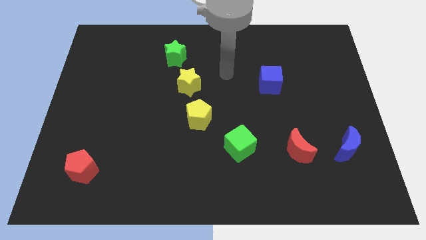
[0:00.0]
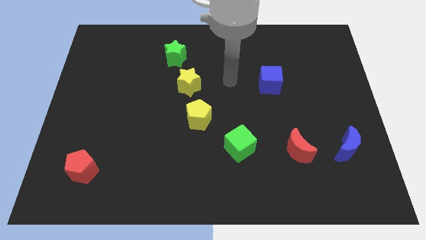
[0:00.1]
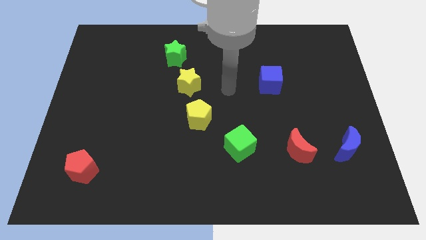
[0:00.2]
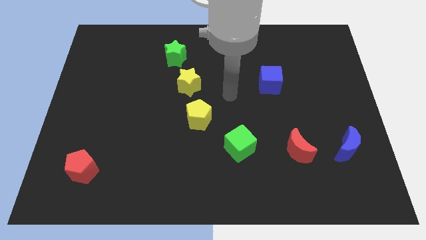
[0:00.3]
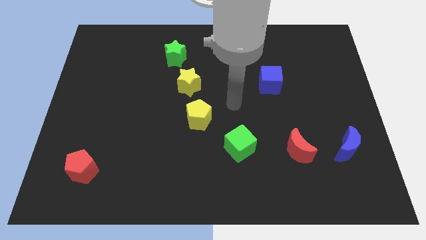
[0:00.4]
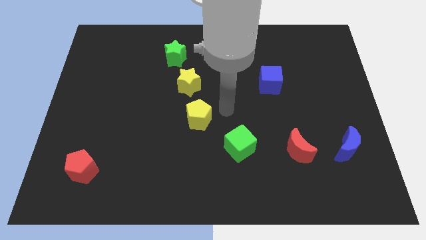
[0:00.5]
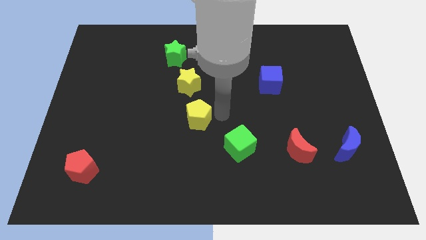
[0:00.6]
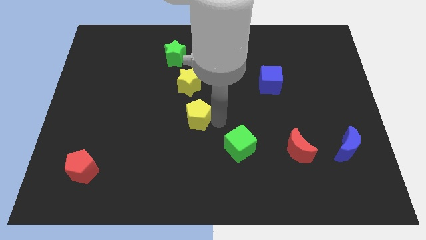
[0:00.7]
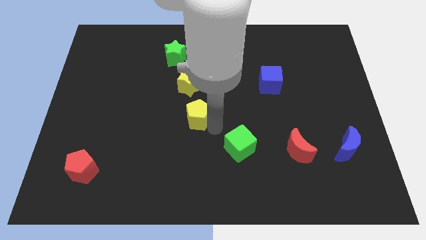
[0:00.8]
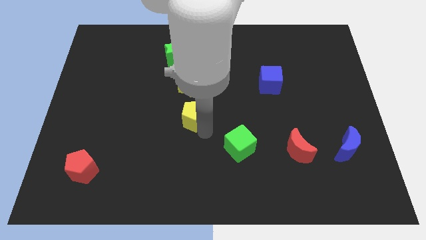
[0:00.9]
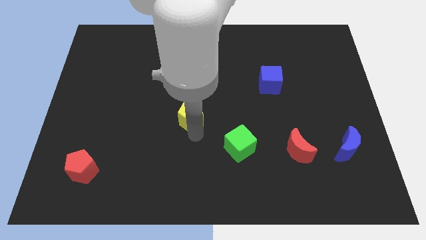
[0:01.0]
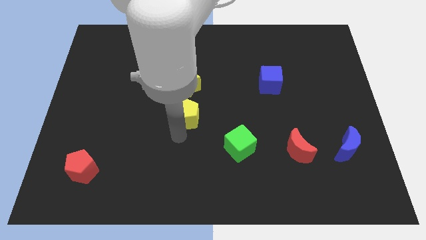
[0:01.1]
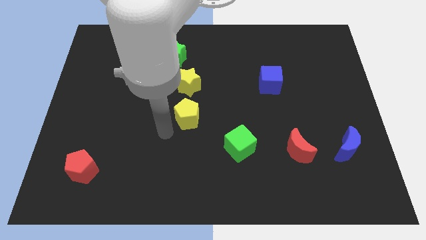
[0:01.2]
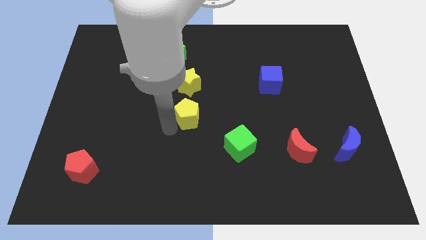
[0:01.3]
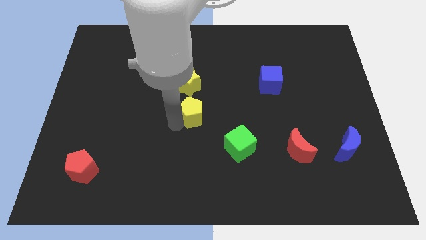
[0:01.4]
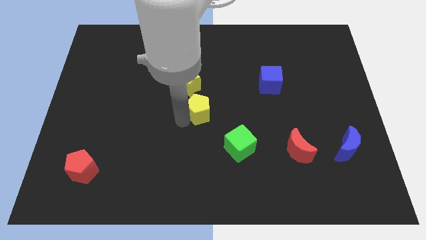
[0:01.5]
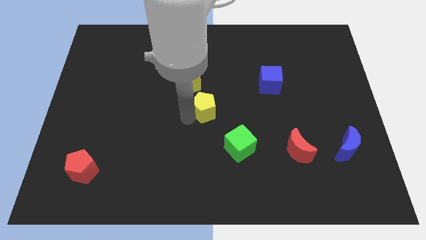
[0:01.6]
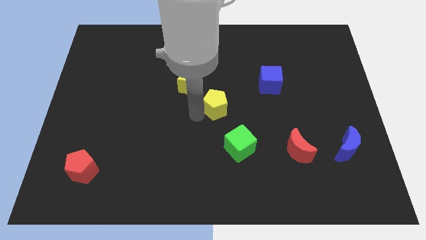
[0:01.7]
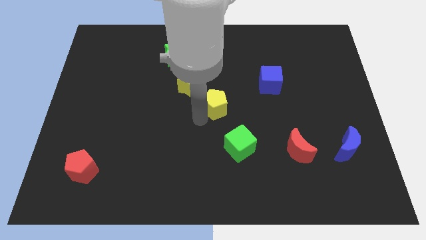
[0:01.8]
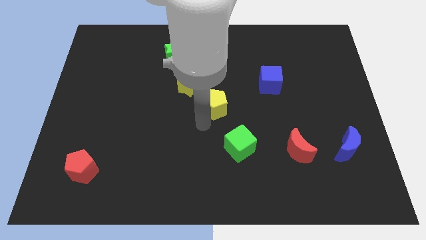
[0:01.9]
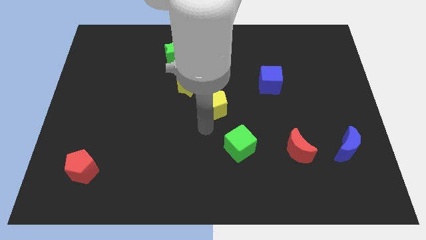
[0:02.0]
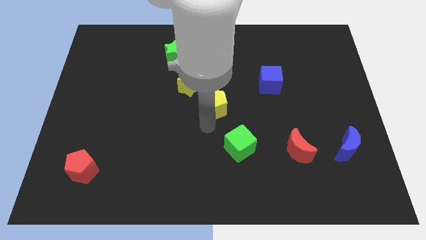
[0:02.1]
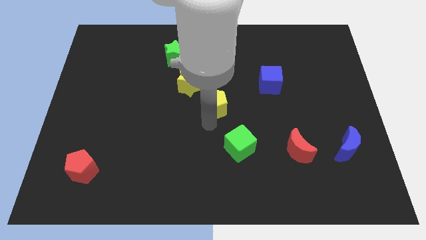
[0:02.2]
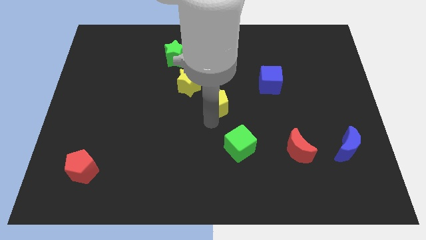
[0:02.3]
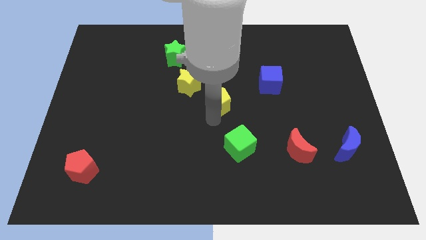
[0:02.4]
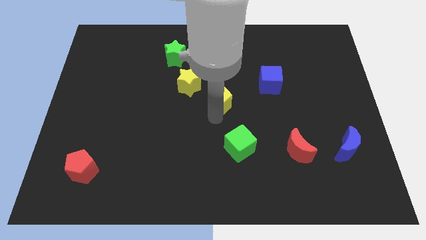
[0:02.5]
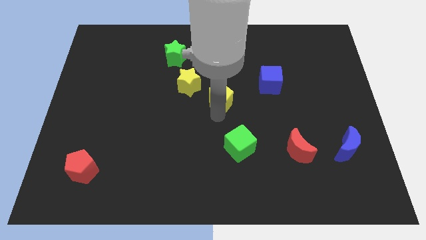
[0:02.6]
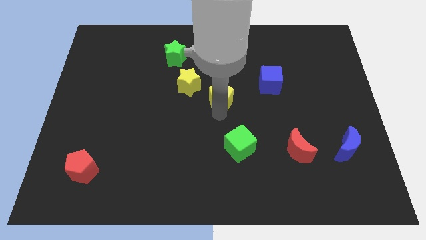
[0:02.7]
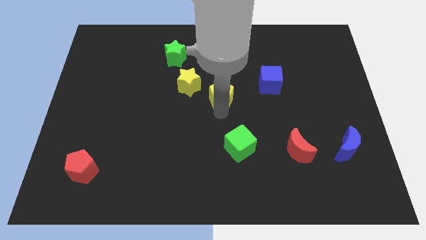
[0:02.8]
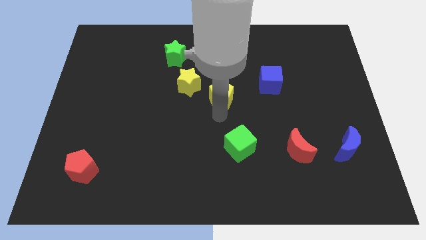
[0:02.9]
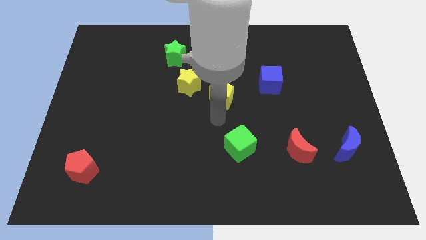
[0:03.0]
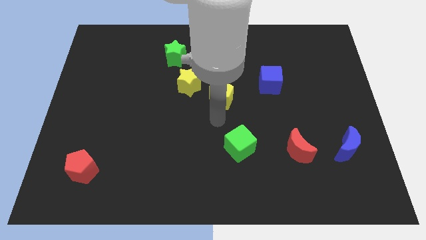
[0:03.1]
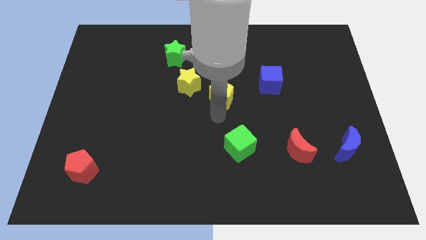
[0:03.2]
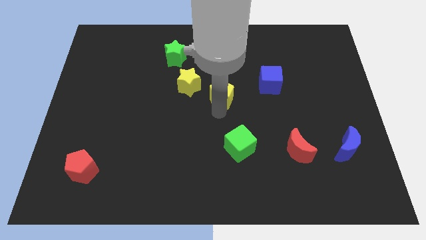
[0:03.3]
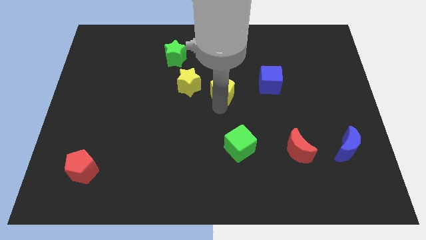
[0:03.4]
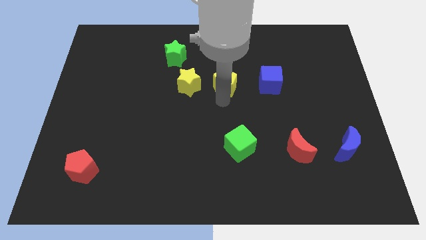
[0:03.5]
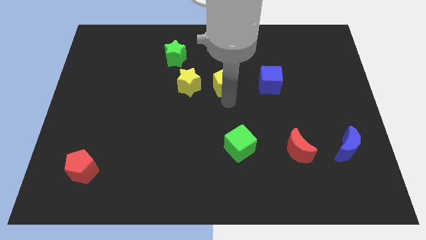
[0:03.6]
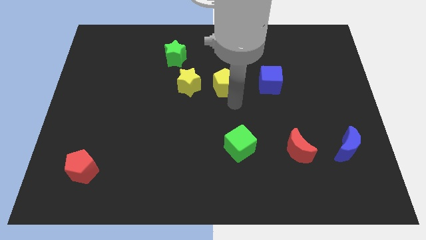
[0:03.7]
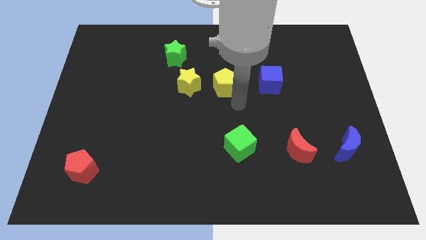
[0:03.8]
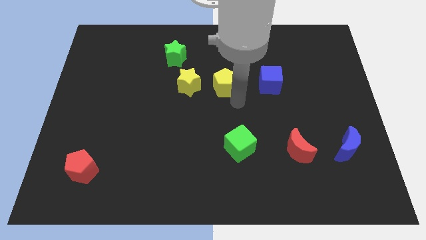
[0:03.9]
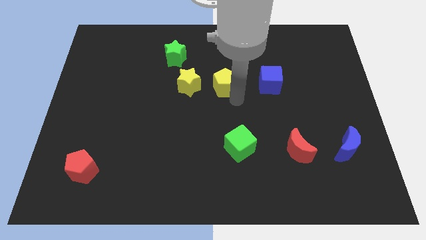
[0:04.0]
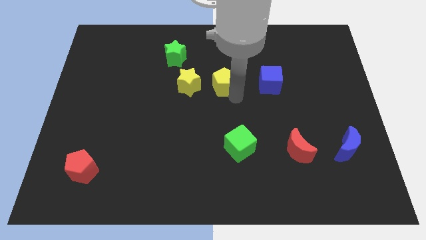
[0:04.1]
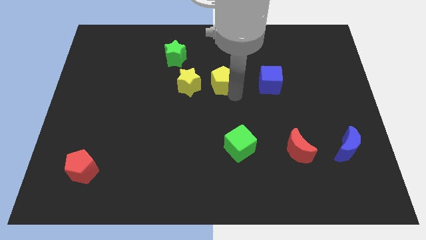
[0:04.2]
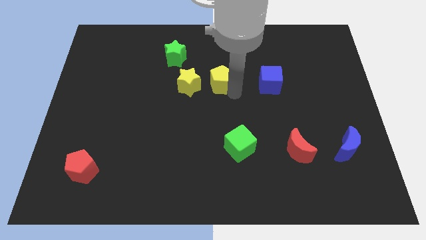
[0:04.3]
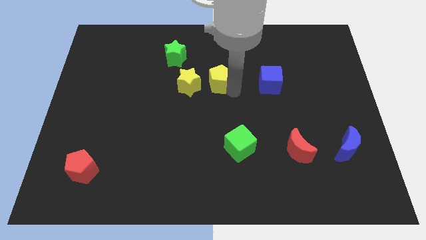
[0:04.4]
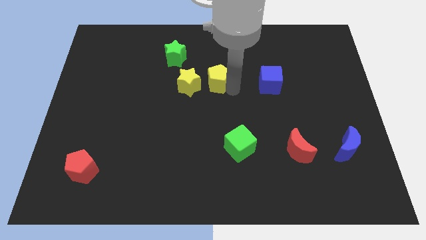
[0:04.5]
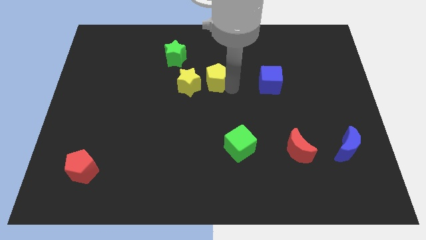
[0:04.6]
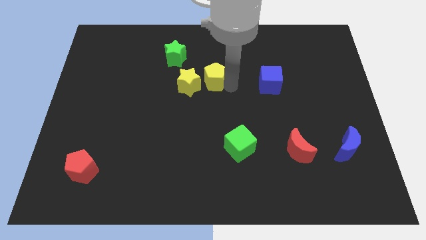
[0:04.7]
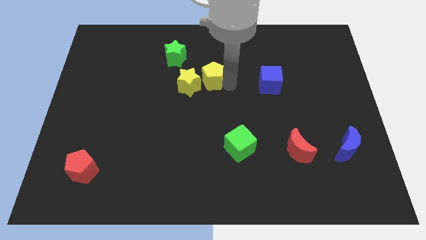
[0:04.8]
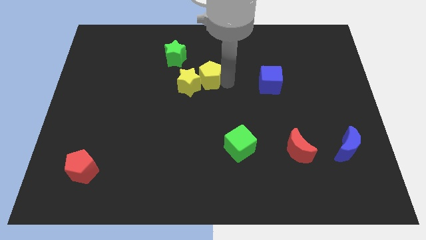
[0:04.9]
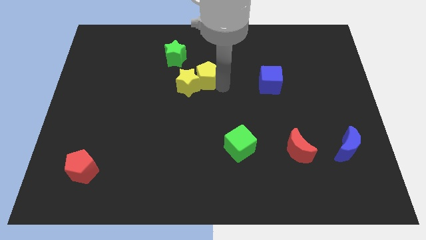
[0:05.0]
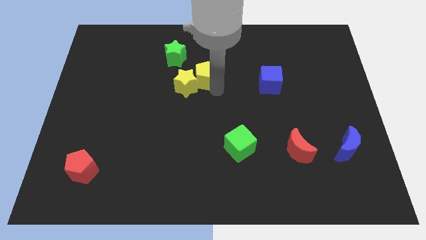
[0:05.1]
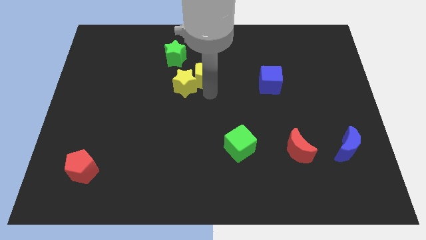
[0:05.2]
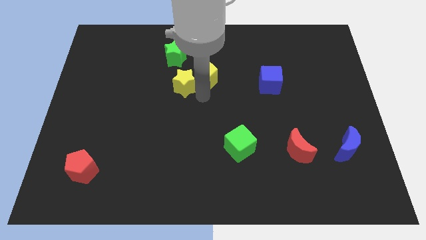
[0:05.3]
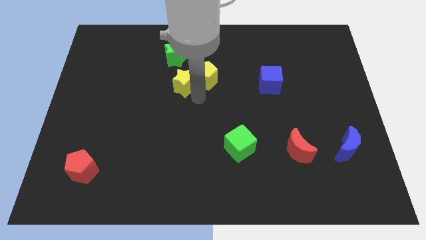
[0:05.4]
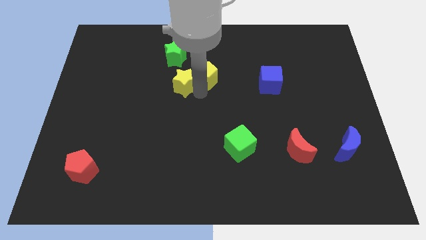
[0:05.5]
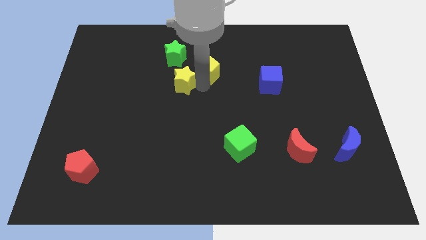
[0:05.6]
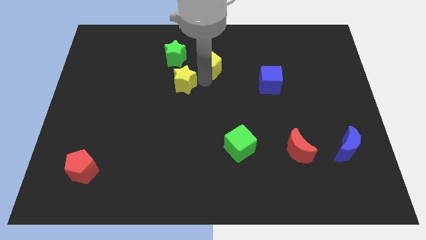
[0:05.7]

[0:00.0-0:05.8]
move the yellow pentagon right of the green star

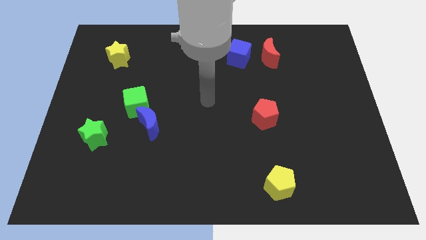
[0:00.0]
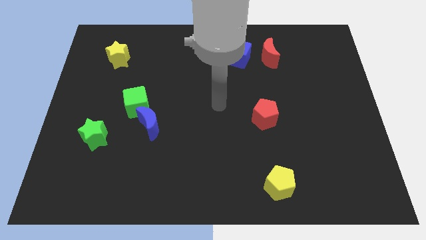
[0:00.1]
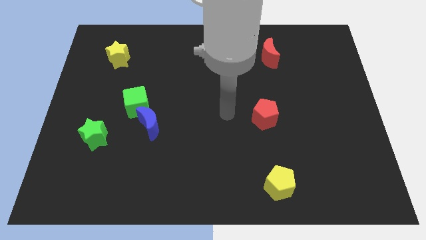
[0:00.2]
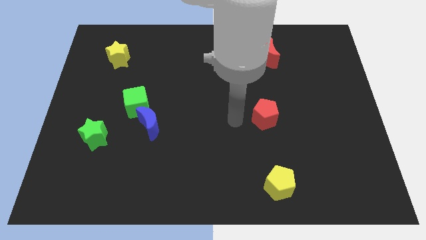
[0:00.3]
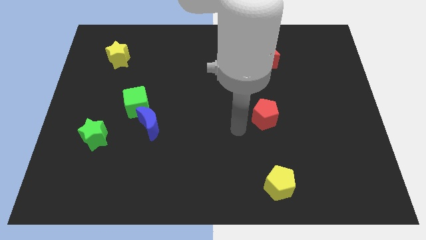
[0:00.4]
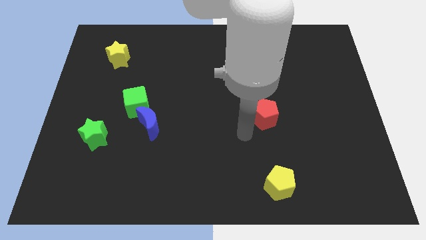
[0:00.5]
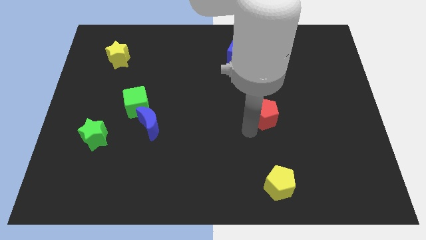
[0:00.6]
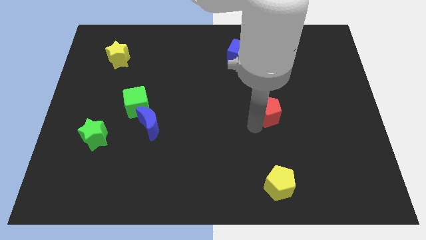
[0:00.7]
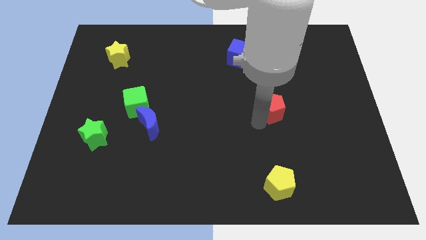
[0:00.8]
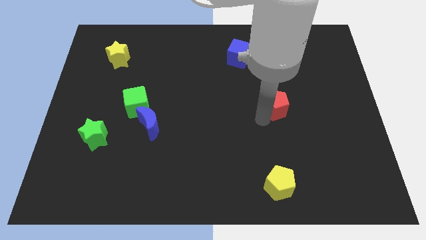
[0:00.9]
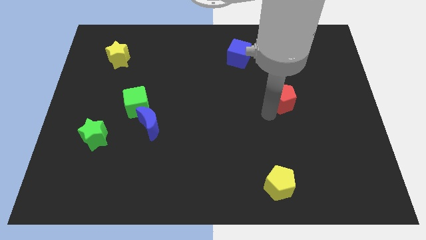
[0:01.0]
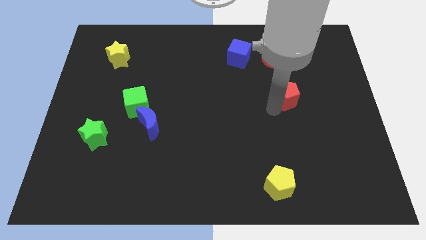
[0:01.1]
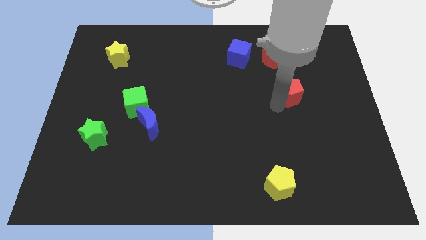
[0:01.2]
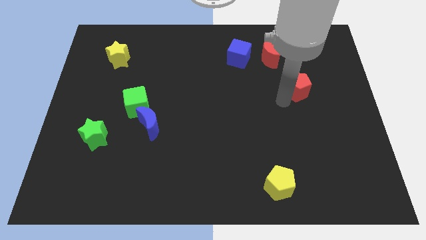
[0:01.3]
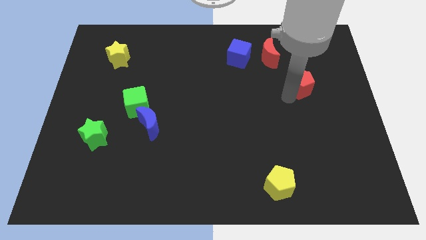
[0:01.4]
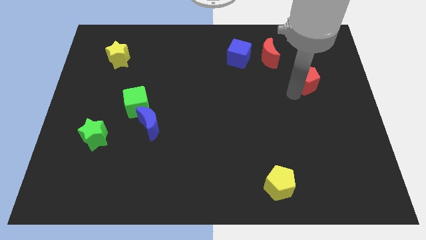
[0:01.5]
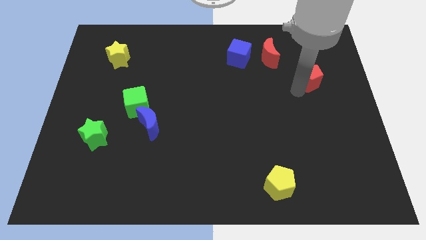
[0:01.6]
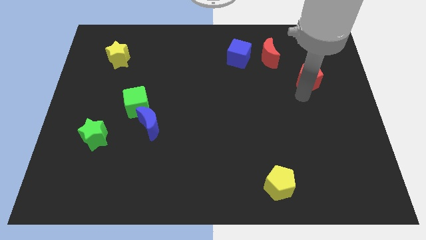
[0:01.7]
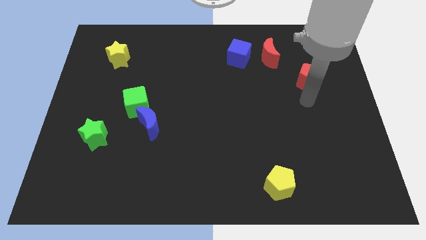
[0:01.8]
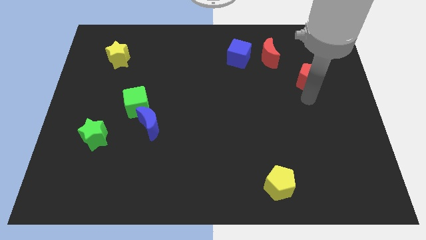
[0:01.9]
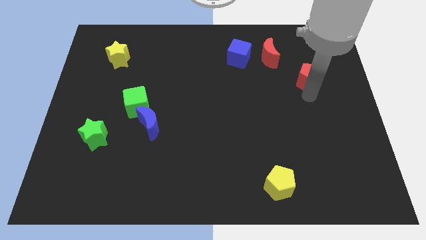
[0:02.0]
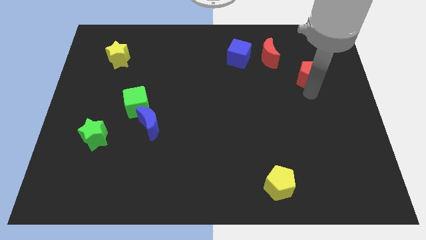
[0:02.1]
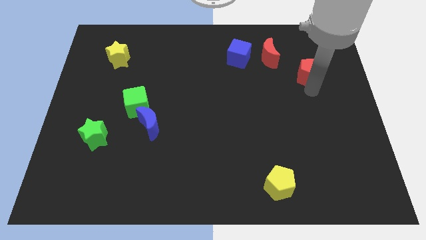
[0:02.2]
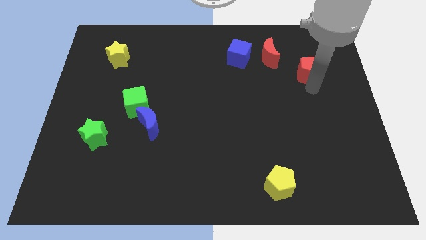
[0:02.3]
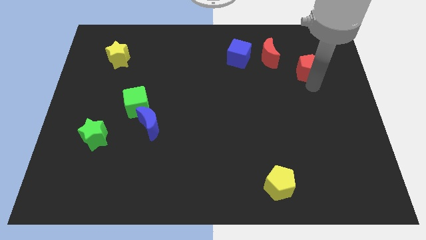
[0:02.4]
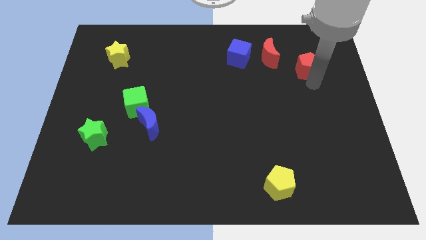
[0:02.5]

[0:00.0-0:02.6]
move the red pentagon to the right of the red moon

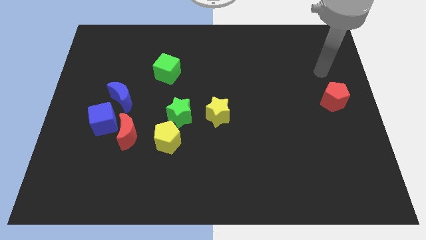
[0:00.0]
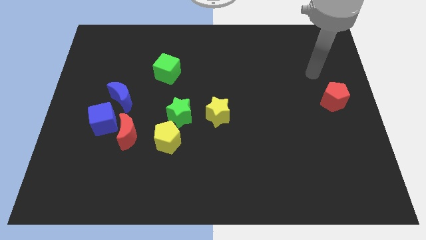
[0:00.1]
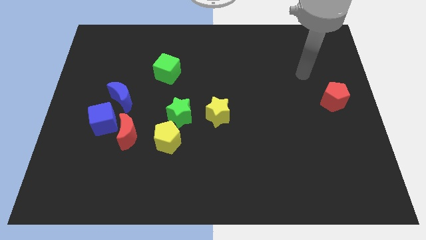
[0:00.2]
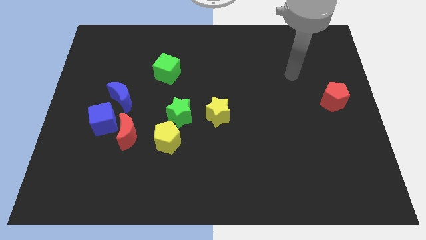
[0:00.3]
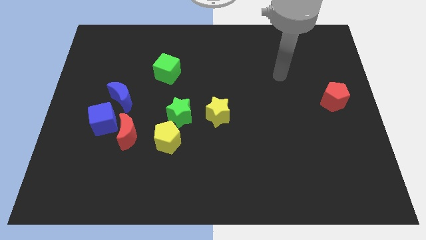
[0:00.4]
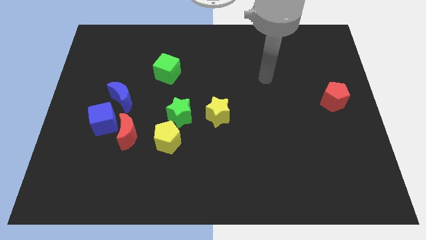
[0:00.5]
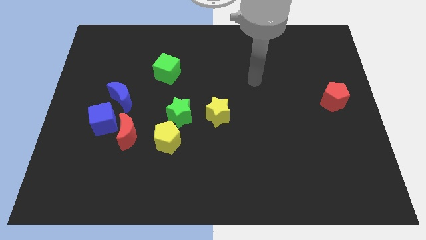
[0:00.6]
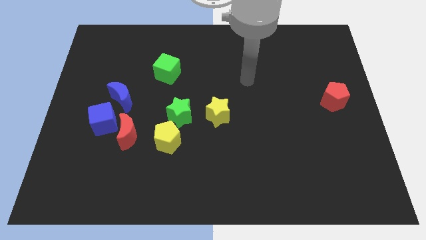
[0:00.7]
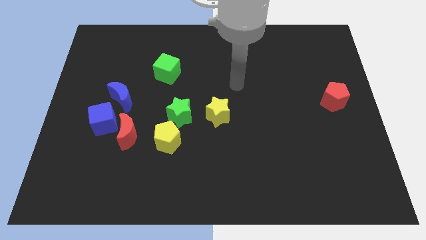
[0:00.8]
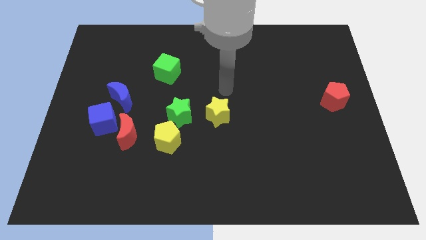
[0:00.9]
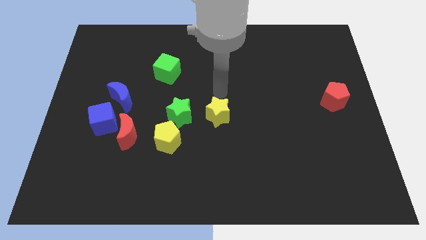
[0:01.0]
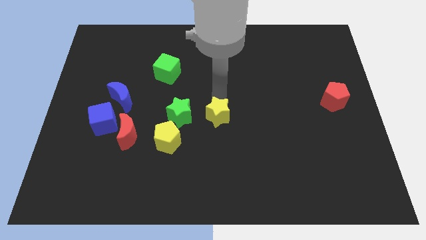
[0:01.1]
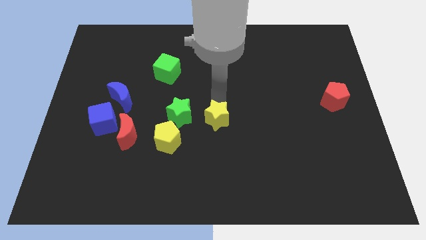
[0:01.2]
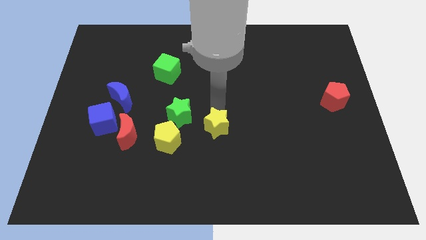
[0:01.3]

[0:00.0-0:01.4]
put the yellow star just right of the yellow pentagon
